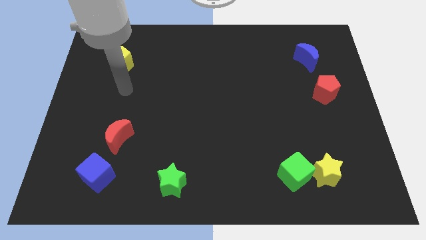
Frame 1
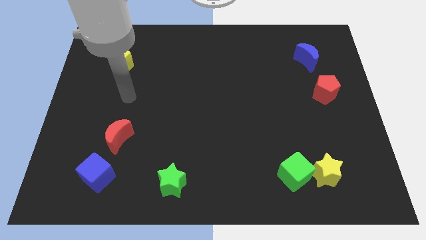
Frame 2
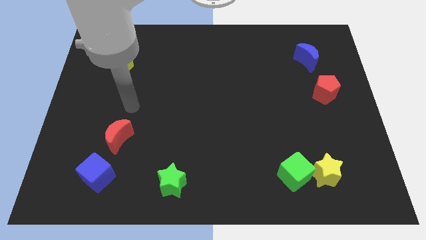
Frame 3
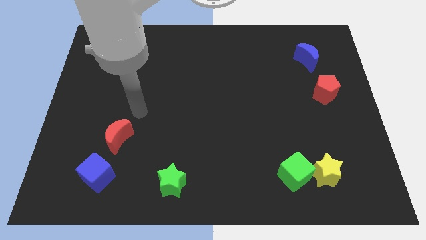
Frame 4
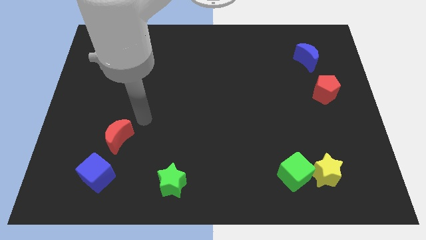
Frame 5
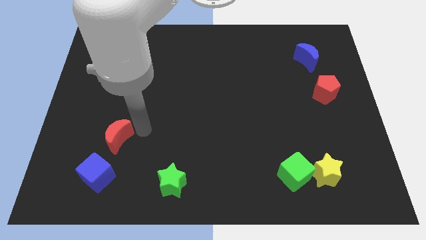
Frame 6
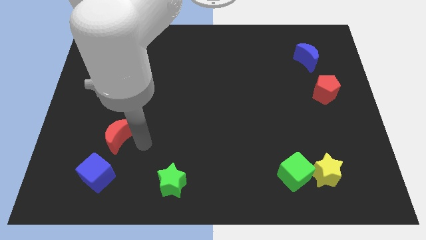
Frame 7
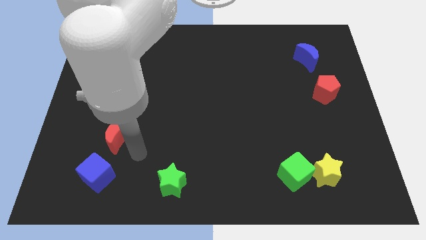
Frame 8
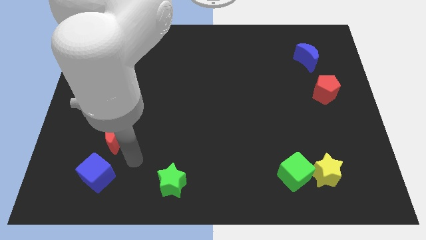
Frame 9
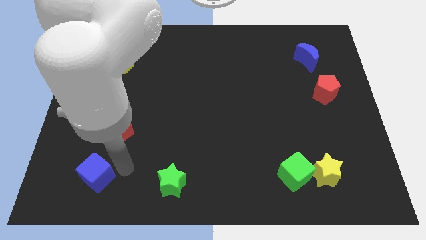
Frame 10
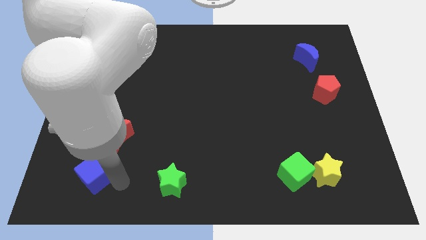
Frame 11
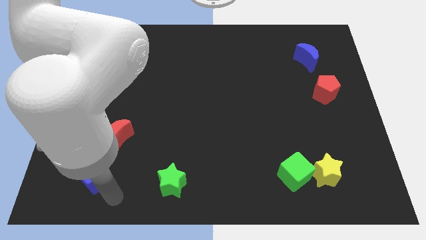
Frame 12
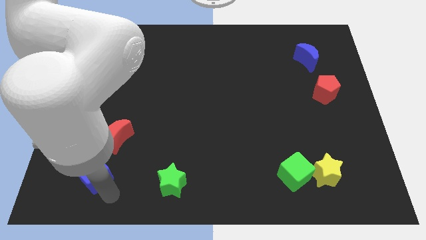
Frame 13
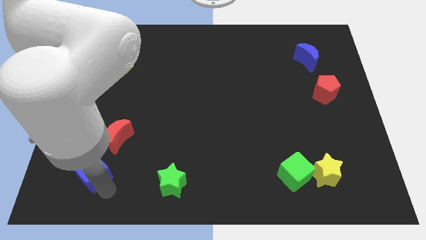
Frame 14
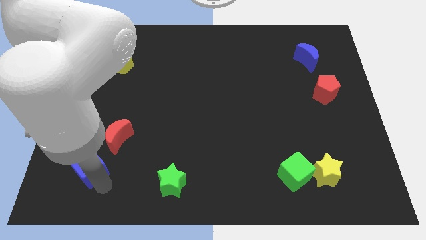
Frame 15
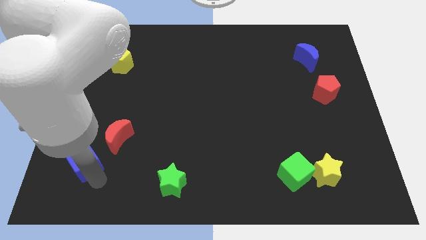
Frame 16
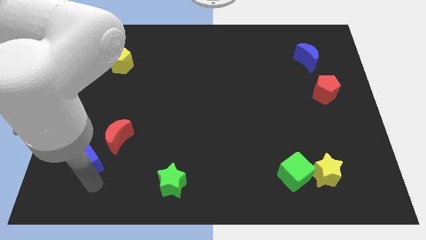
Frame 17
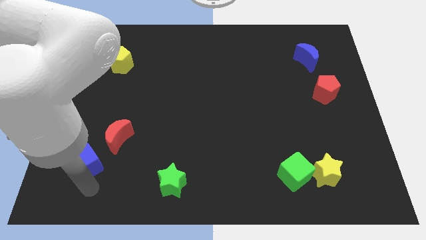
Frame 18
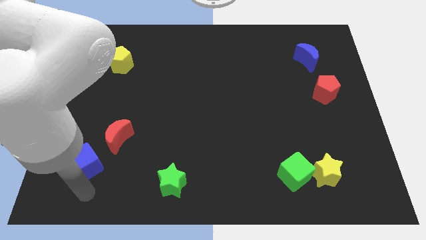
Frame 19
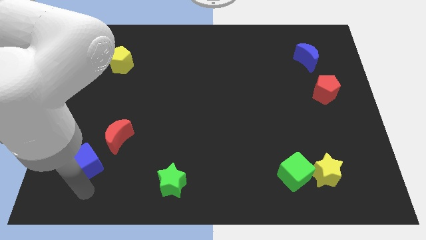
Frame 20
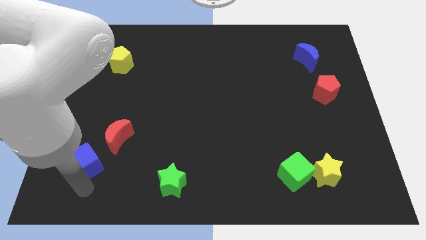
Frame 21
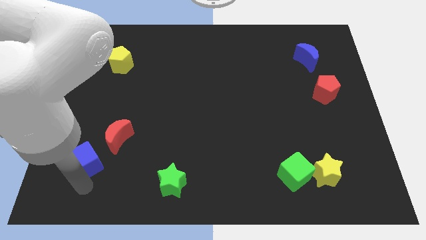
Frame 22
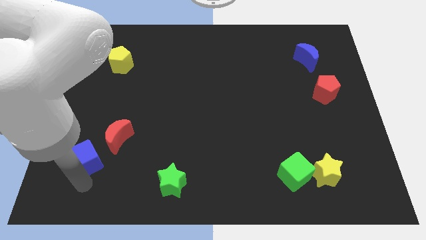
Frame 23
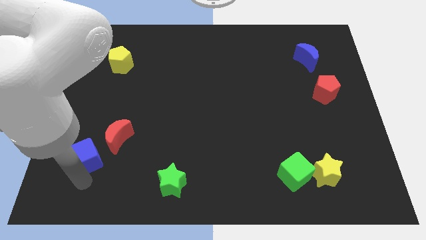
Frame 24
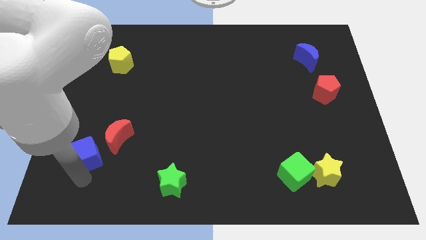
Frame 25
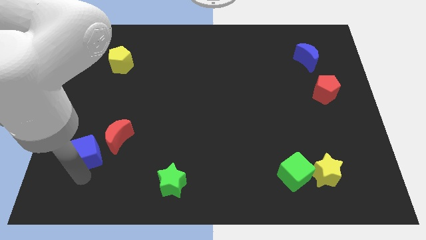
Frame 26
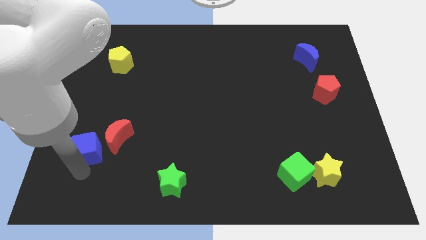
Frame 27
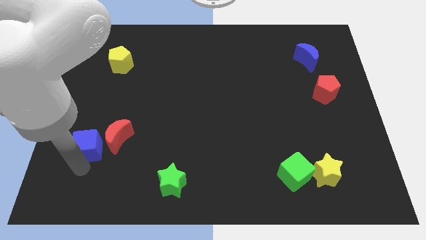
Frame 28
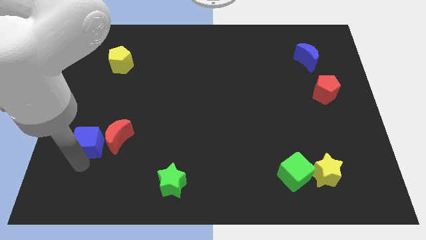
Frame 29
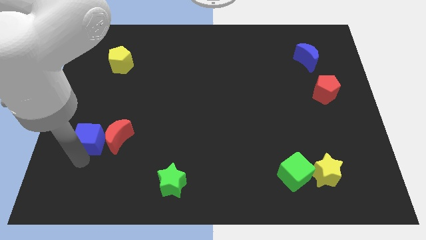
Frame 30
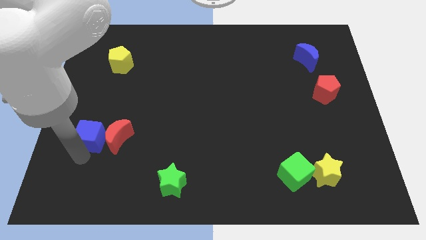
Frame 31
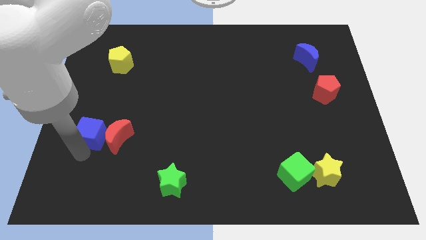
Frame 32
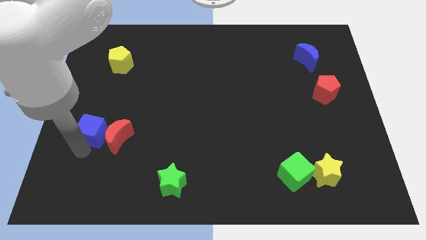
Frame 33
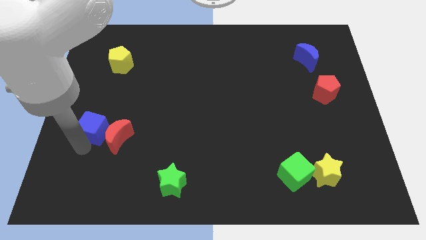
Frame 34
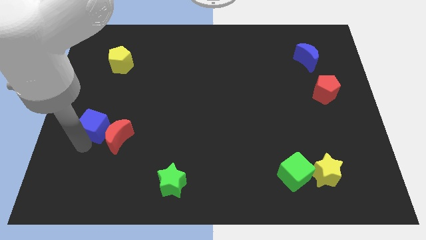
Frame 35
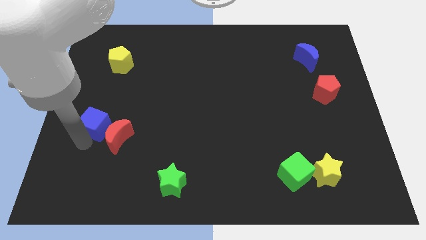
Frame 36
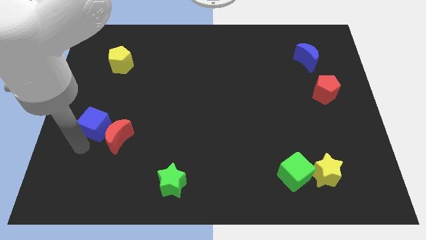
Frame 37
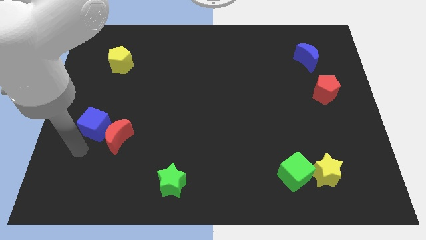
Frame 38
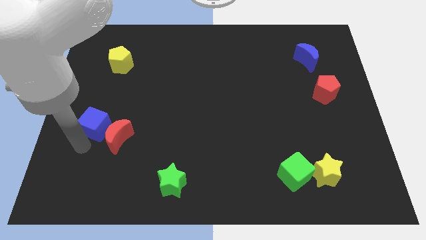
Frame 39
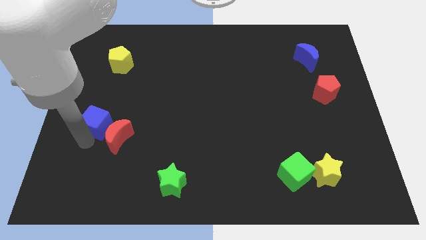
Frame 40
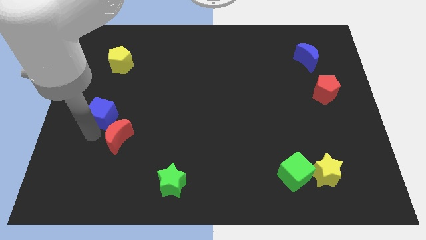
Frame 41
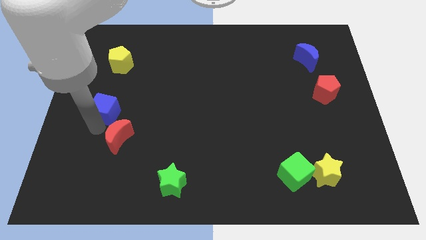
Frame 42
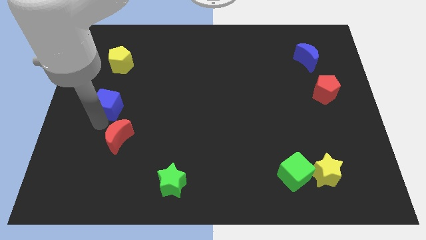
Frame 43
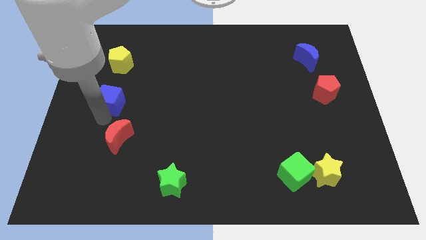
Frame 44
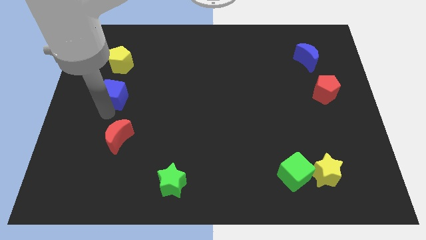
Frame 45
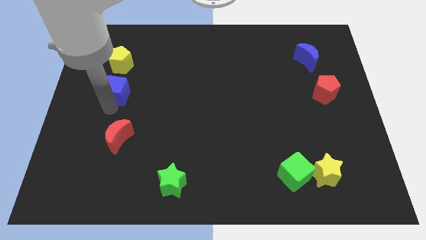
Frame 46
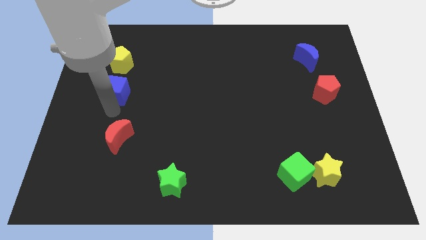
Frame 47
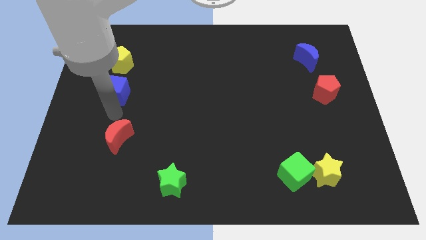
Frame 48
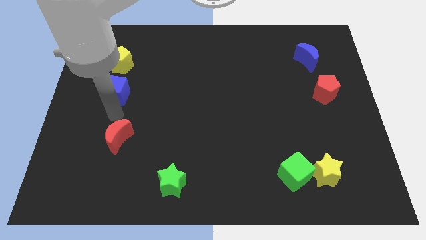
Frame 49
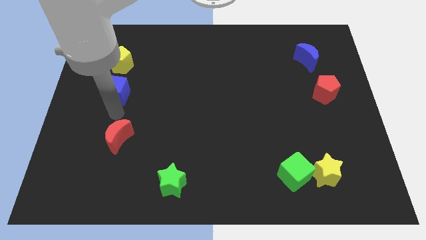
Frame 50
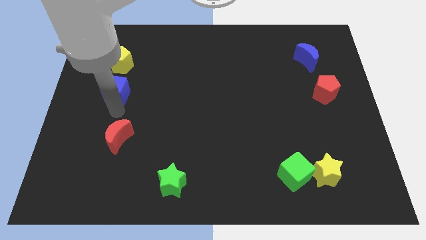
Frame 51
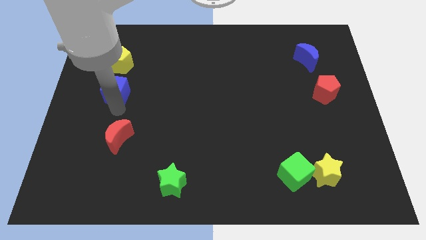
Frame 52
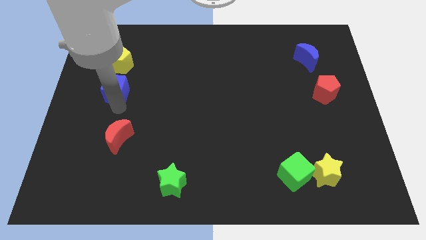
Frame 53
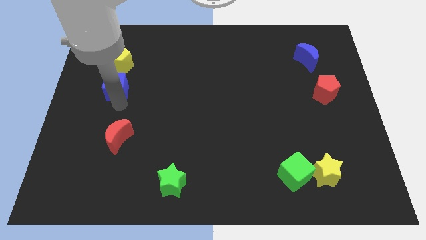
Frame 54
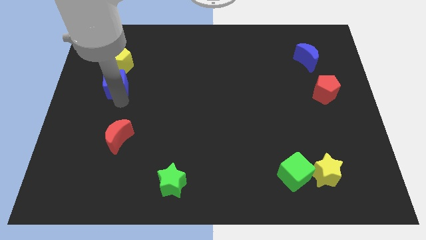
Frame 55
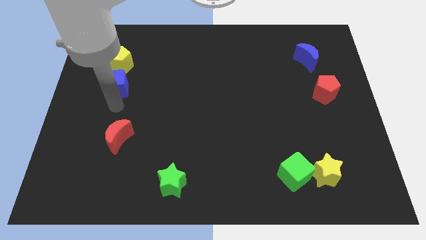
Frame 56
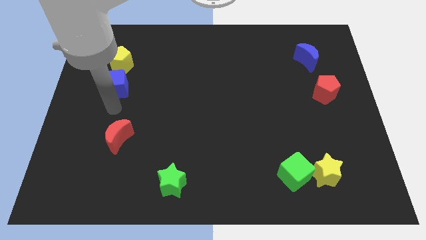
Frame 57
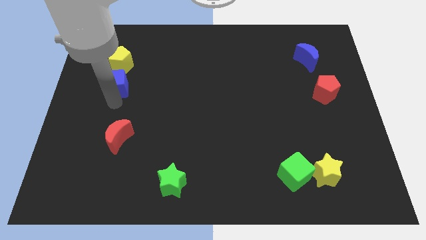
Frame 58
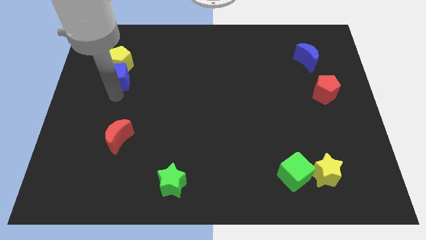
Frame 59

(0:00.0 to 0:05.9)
move the blue cube next to the yellow pentagon

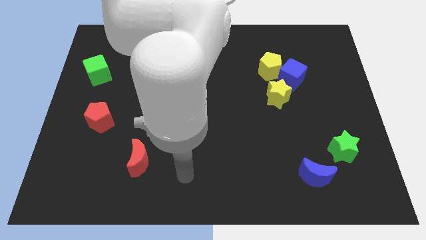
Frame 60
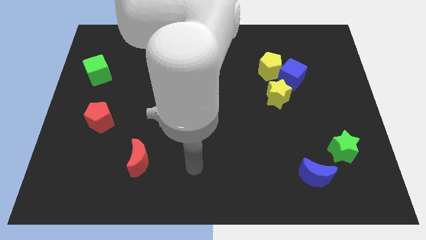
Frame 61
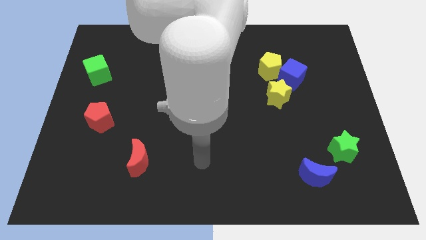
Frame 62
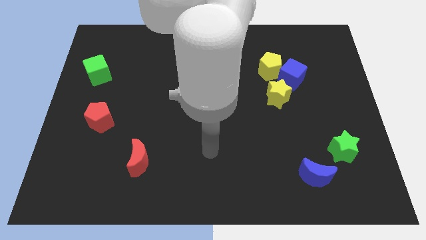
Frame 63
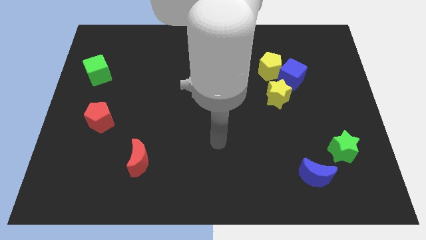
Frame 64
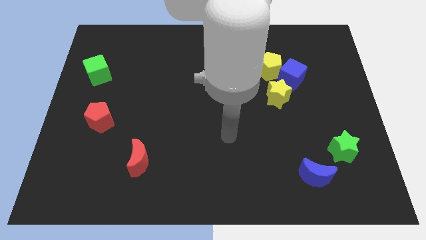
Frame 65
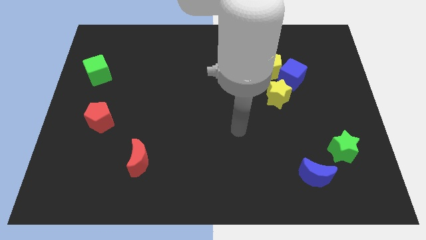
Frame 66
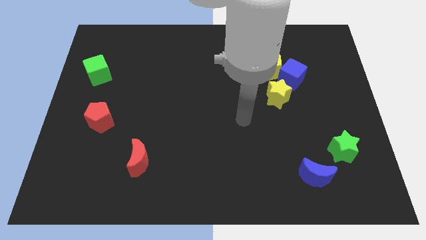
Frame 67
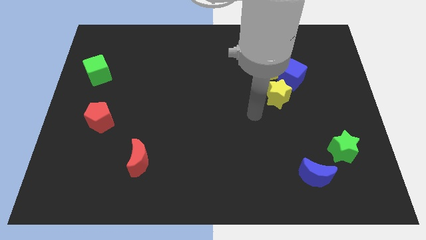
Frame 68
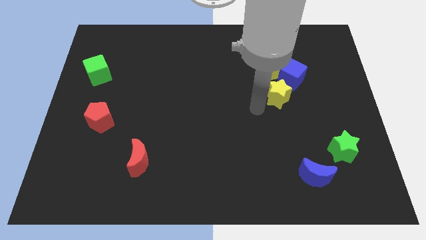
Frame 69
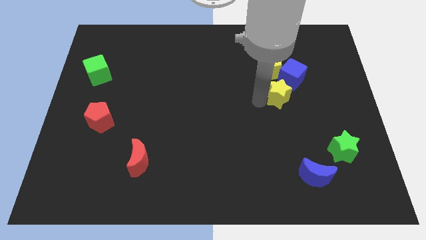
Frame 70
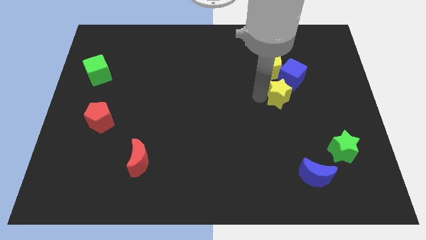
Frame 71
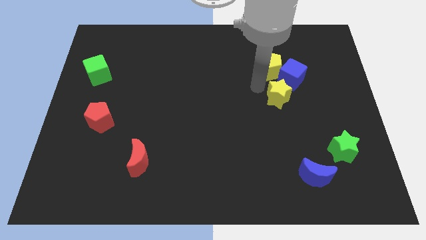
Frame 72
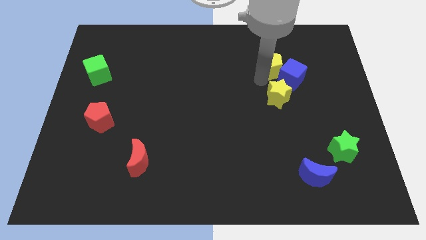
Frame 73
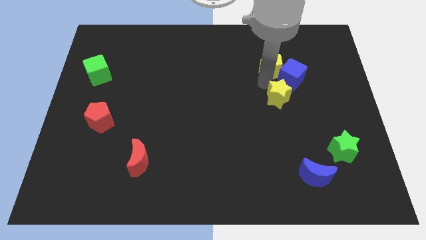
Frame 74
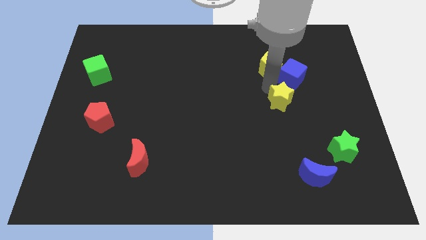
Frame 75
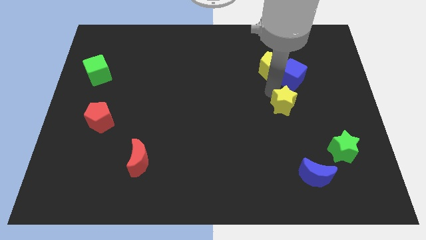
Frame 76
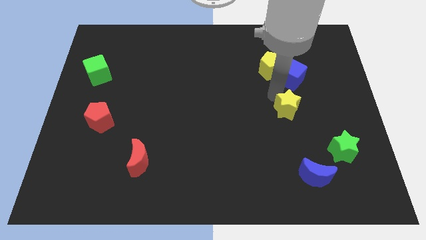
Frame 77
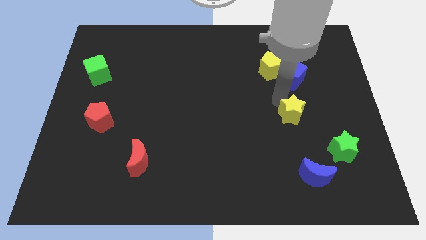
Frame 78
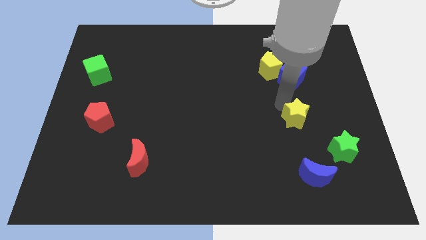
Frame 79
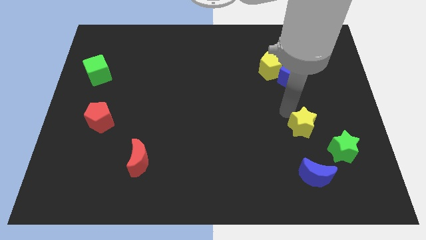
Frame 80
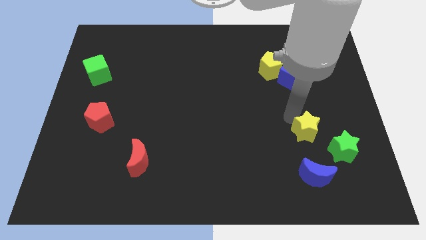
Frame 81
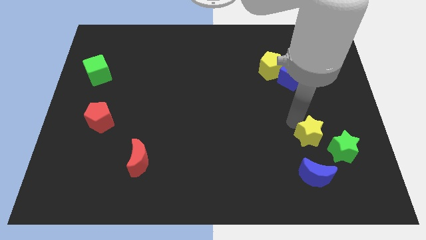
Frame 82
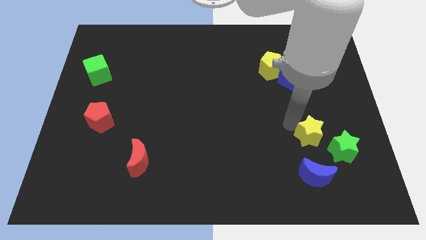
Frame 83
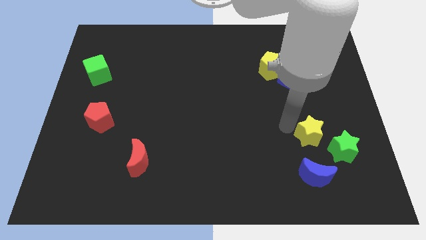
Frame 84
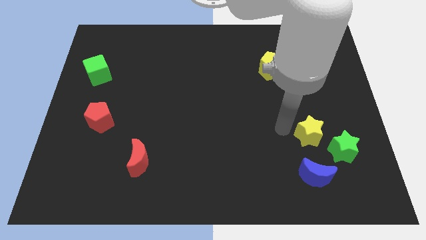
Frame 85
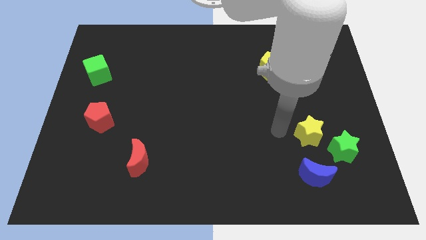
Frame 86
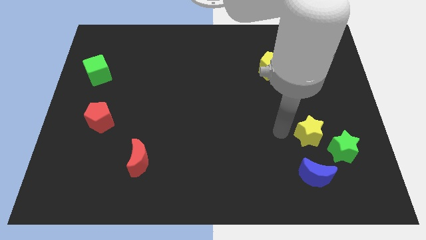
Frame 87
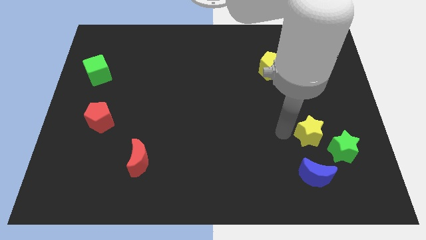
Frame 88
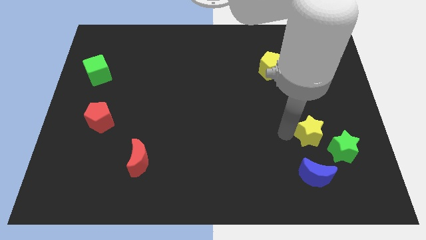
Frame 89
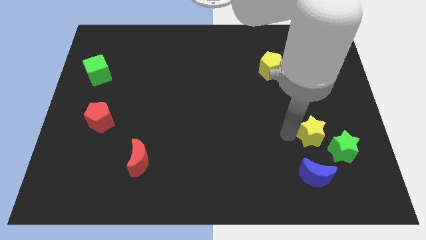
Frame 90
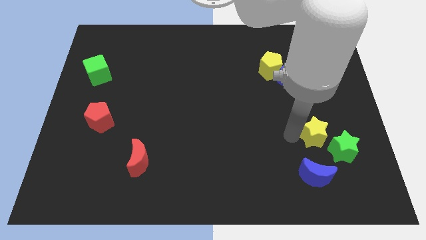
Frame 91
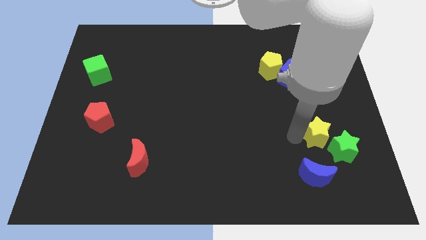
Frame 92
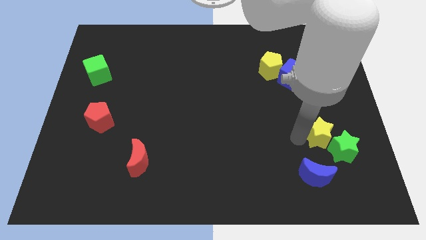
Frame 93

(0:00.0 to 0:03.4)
put the yellow star to the green star
